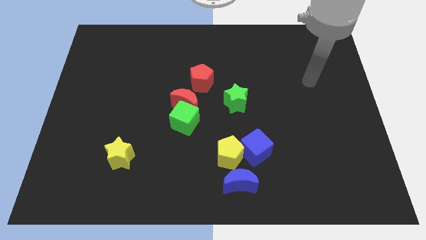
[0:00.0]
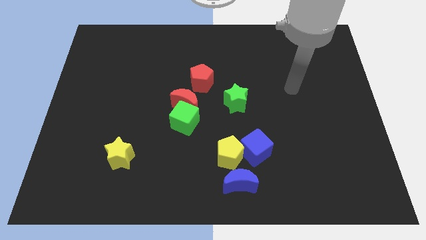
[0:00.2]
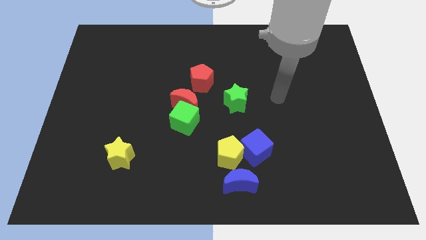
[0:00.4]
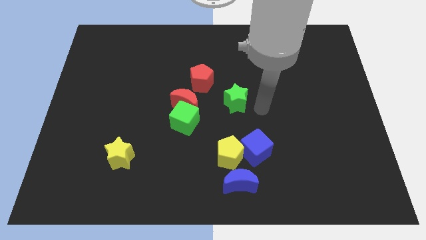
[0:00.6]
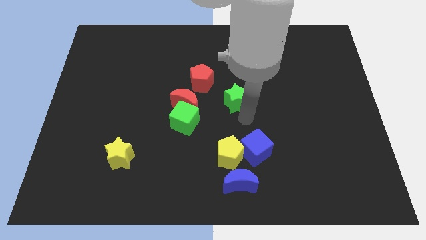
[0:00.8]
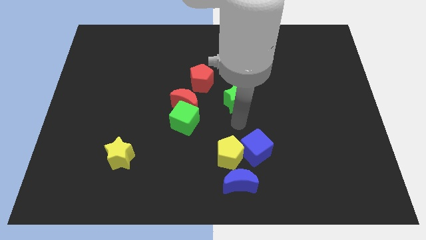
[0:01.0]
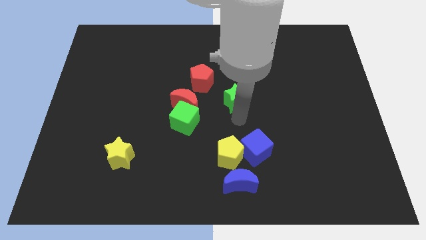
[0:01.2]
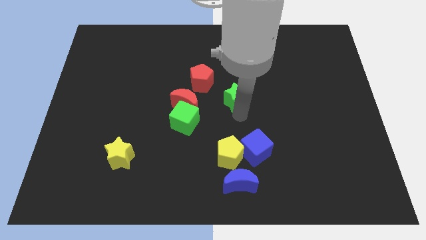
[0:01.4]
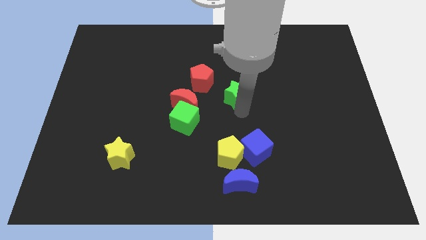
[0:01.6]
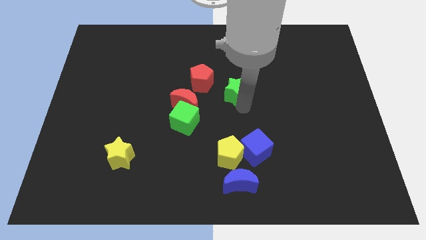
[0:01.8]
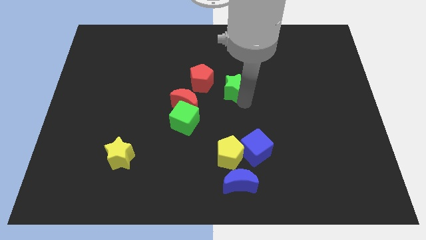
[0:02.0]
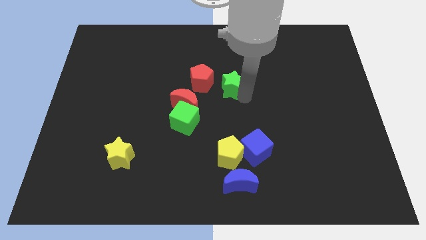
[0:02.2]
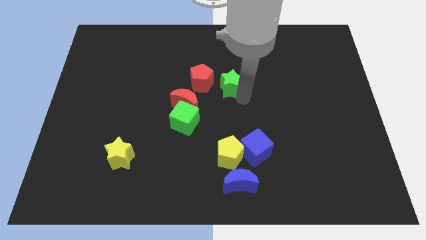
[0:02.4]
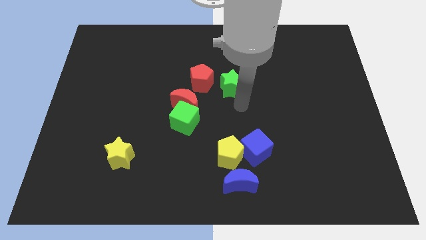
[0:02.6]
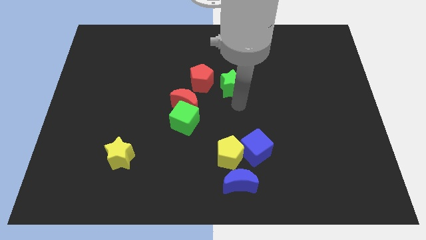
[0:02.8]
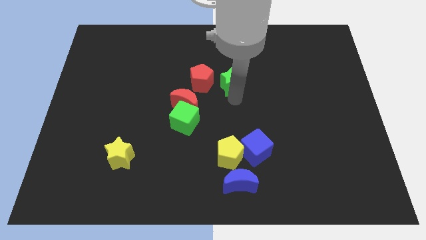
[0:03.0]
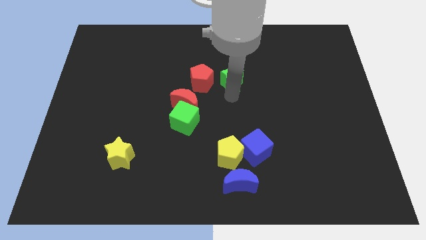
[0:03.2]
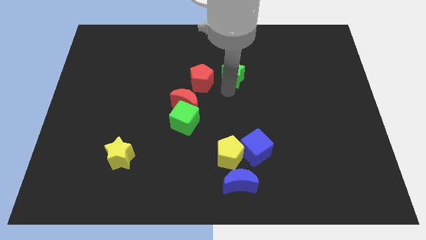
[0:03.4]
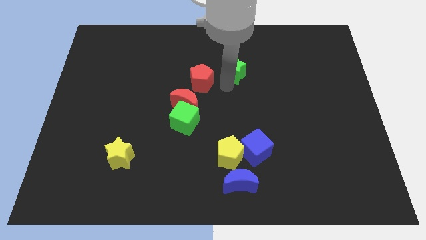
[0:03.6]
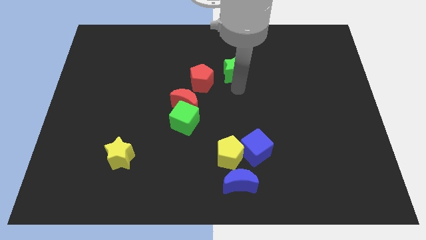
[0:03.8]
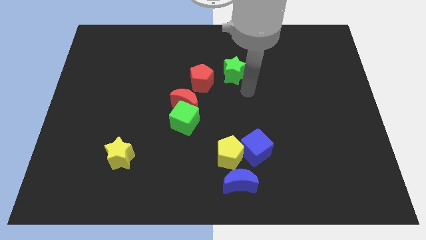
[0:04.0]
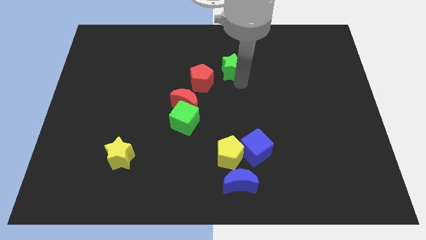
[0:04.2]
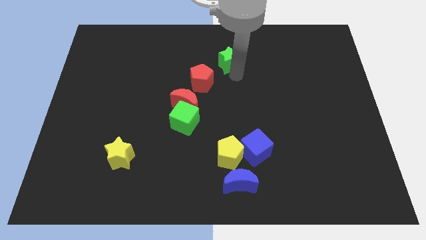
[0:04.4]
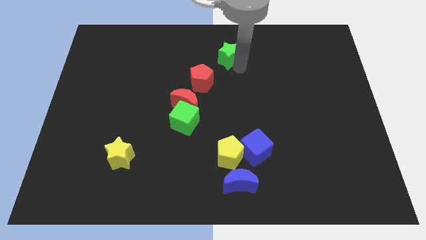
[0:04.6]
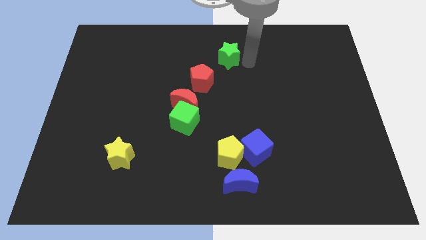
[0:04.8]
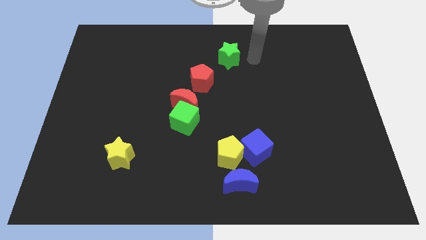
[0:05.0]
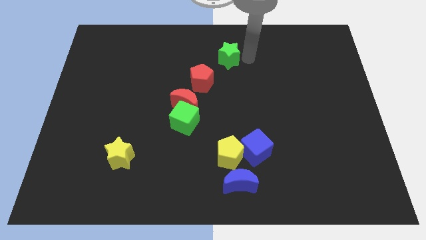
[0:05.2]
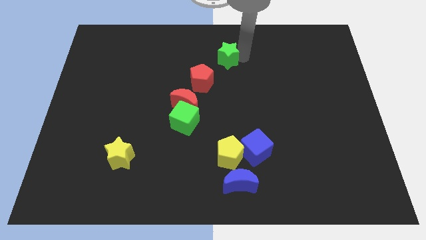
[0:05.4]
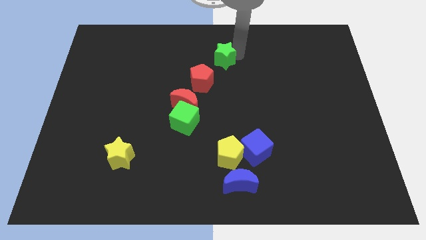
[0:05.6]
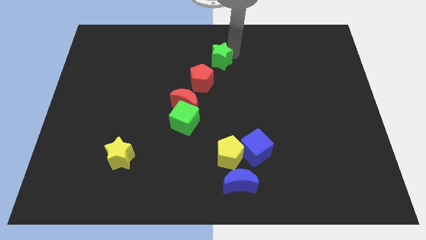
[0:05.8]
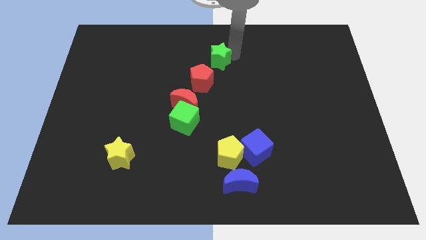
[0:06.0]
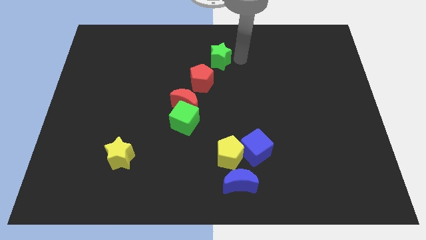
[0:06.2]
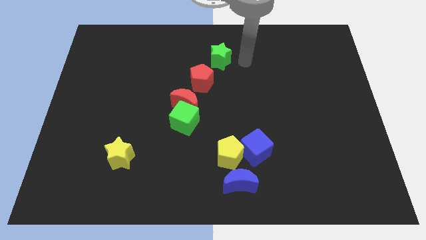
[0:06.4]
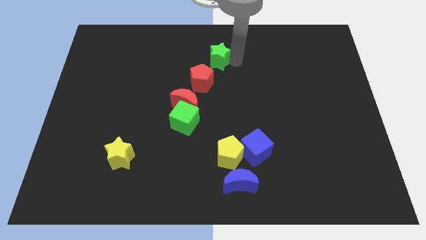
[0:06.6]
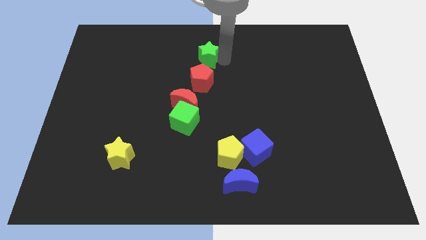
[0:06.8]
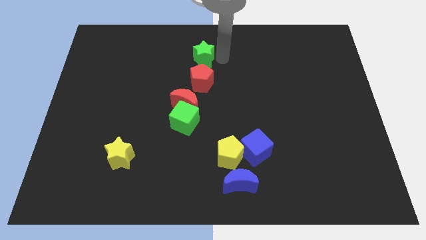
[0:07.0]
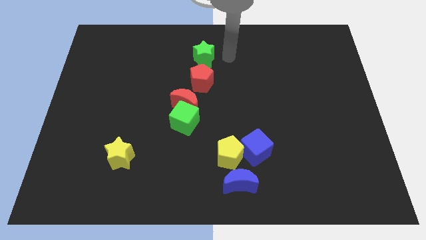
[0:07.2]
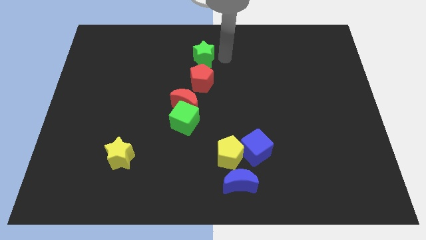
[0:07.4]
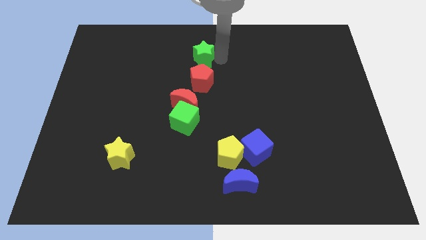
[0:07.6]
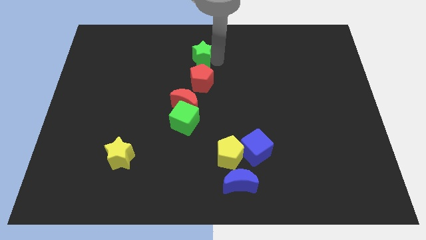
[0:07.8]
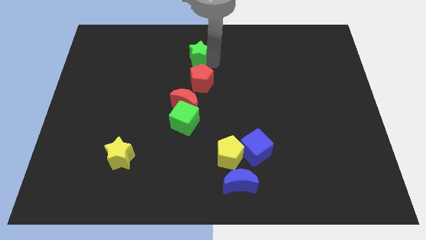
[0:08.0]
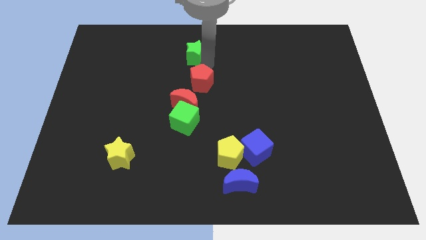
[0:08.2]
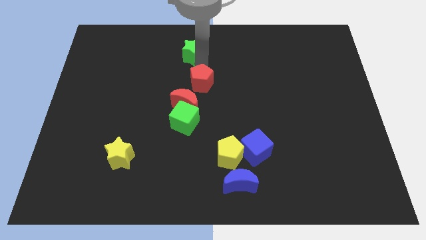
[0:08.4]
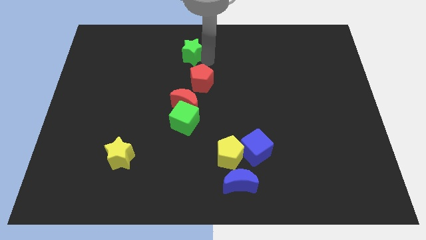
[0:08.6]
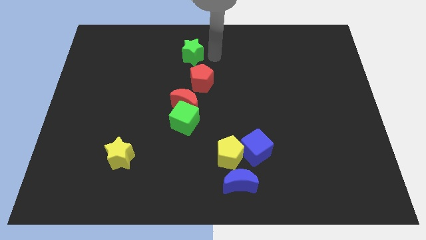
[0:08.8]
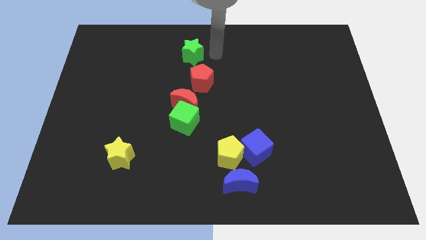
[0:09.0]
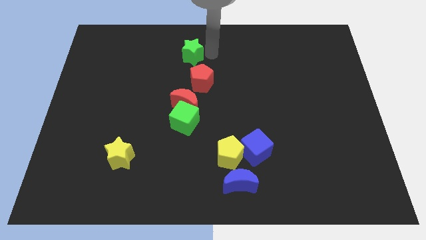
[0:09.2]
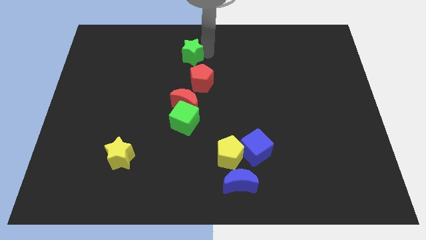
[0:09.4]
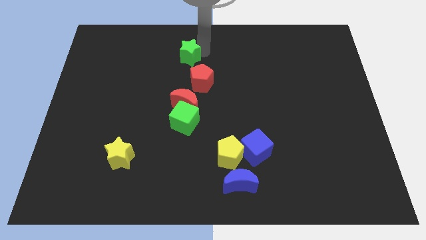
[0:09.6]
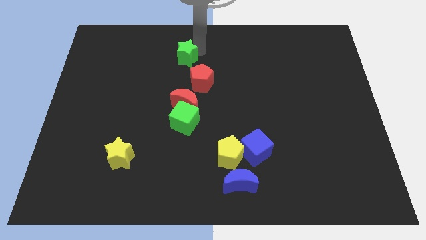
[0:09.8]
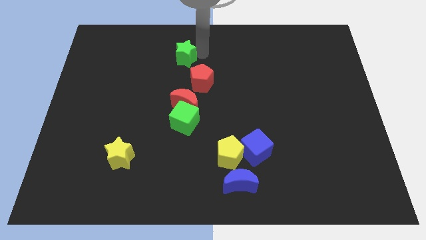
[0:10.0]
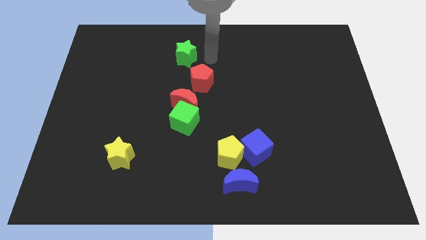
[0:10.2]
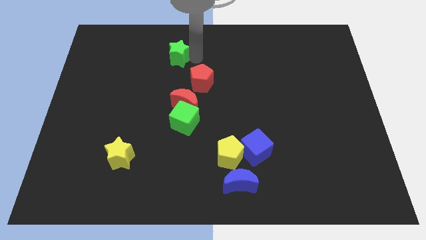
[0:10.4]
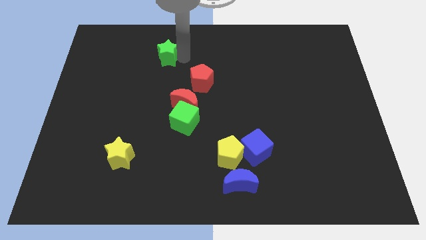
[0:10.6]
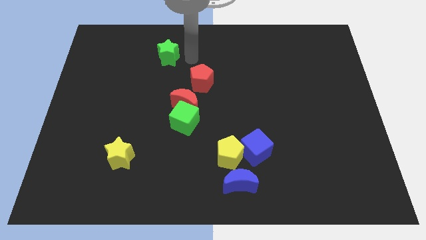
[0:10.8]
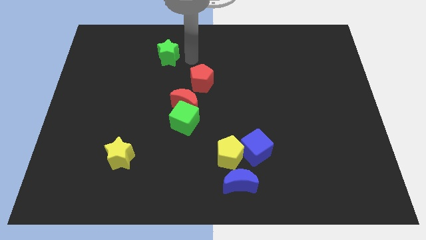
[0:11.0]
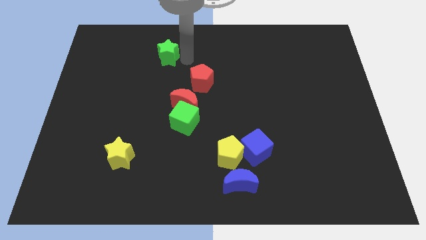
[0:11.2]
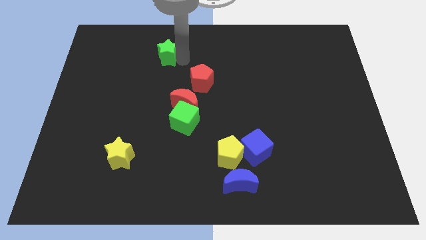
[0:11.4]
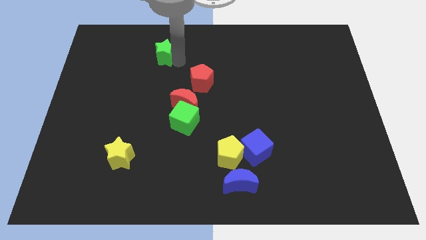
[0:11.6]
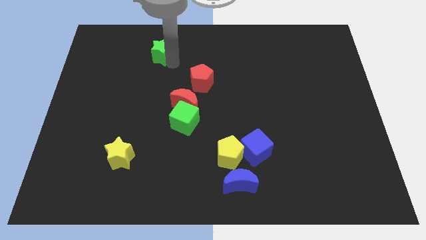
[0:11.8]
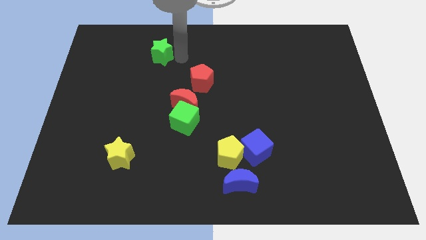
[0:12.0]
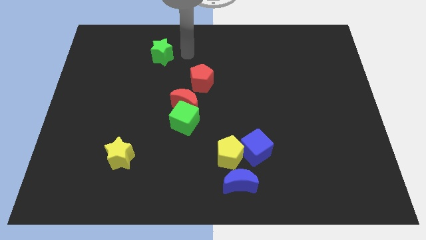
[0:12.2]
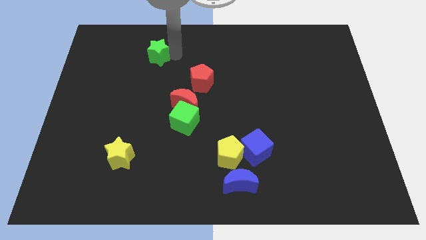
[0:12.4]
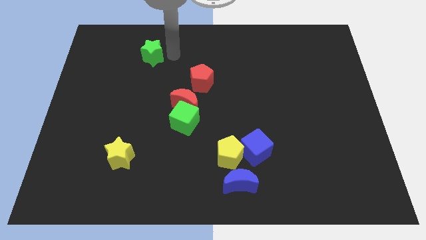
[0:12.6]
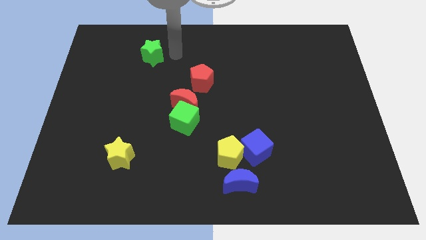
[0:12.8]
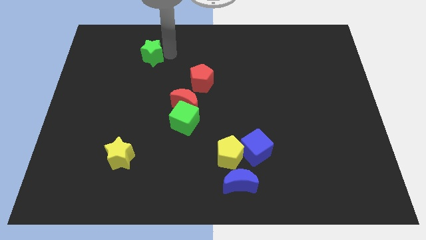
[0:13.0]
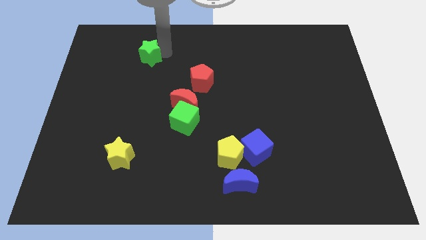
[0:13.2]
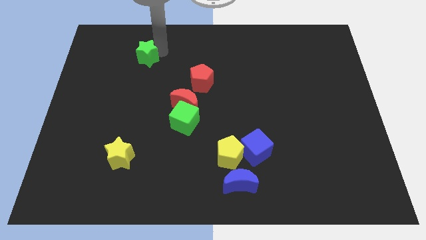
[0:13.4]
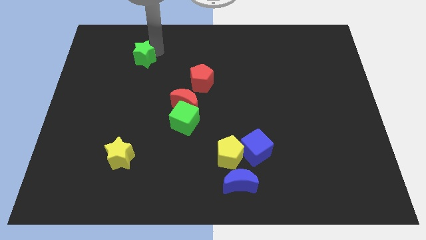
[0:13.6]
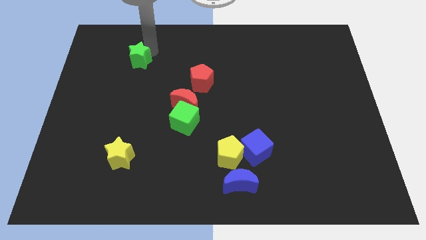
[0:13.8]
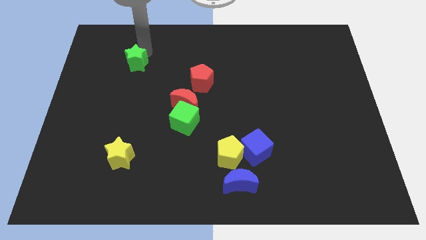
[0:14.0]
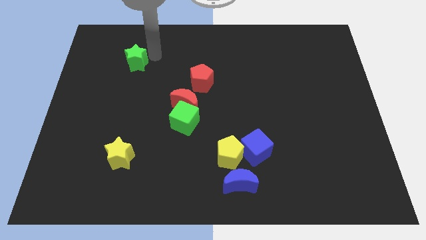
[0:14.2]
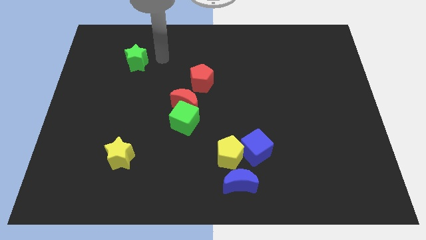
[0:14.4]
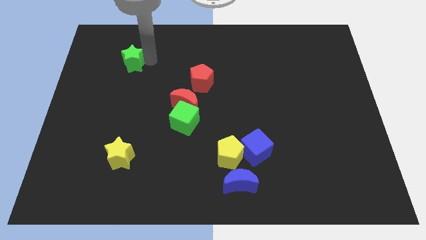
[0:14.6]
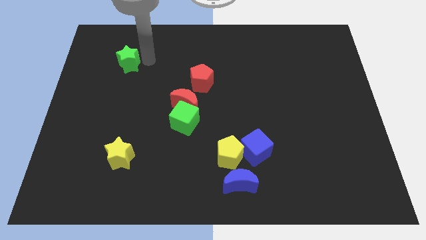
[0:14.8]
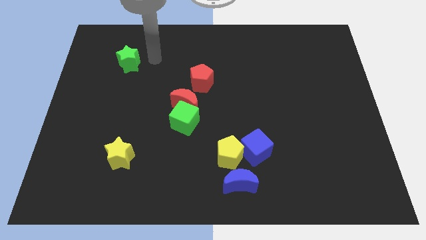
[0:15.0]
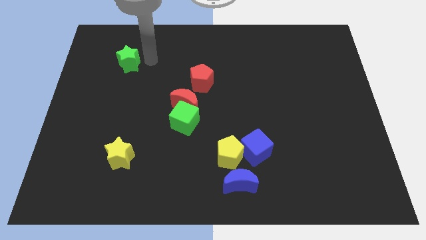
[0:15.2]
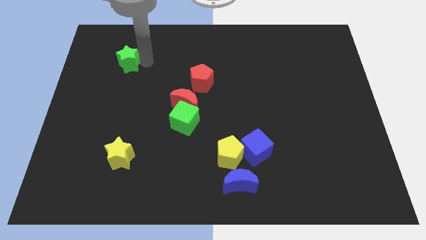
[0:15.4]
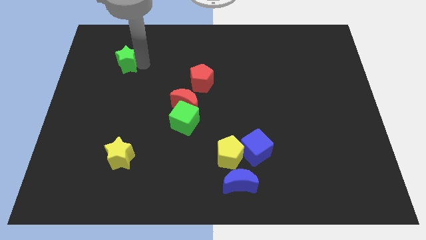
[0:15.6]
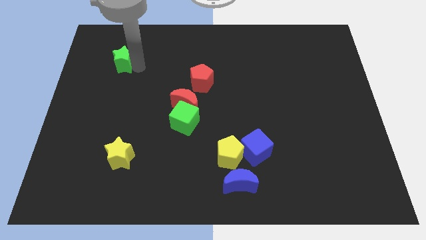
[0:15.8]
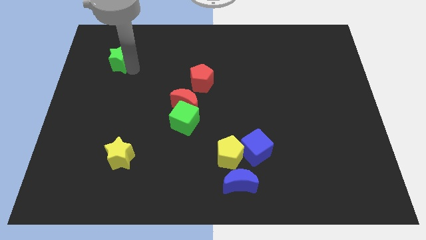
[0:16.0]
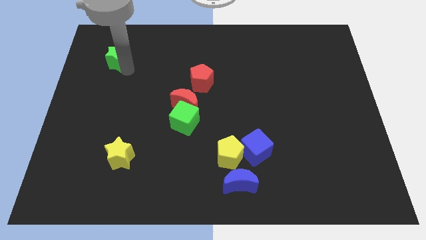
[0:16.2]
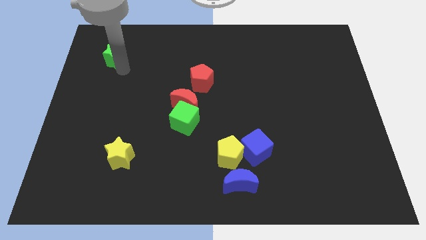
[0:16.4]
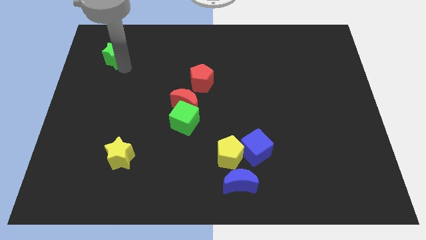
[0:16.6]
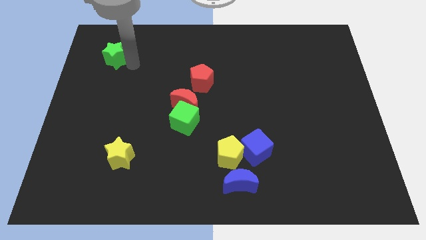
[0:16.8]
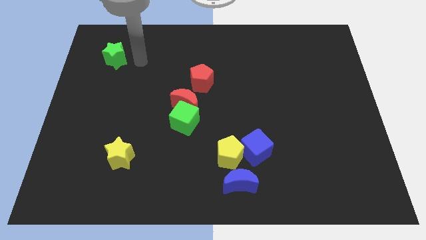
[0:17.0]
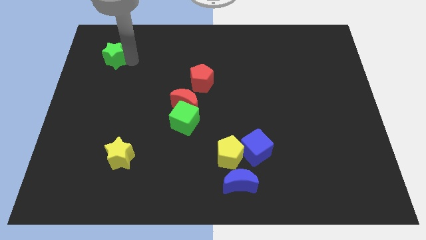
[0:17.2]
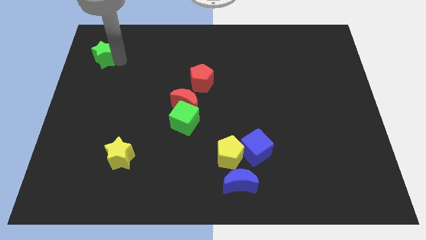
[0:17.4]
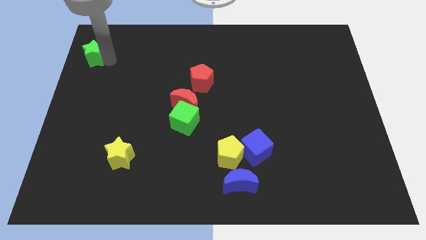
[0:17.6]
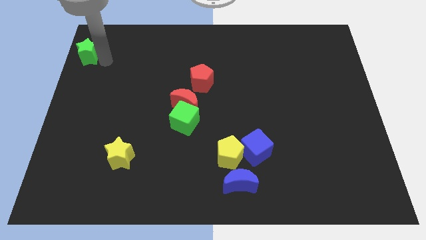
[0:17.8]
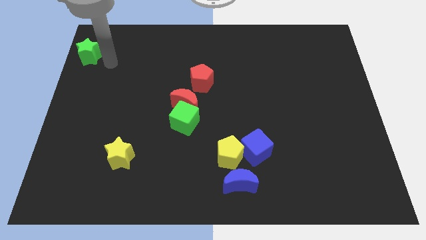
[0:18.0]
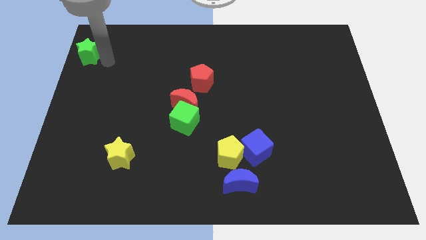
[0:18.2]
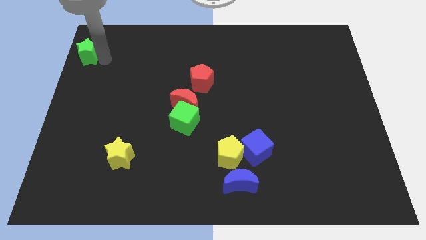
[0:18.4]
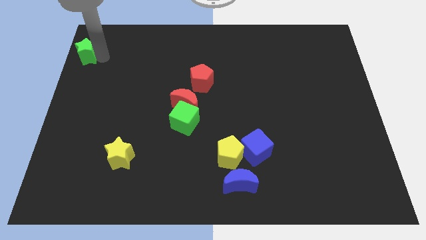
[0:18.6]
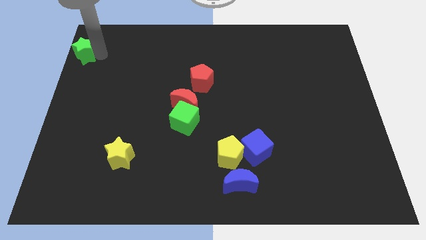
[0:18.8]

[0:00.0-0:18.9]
move the green star to the top left
